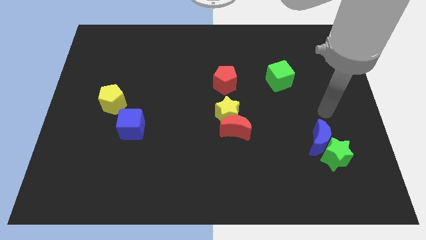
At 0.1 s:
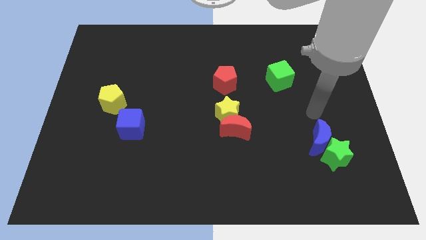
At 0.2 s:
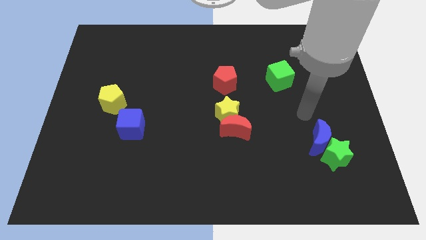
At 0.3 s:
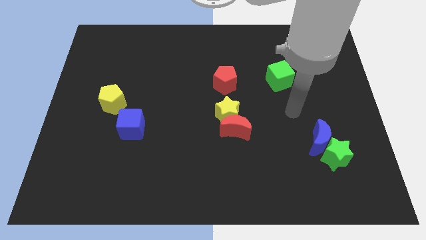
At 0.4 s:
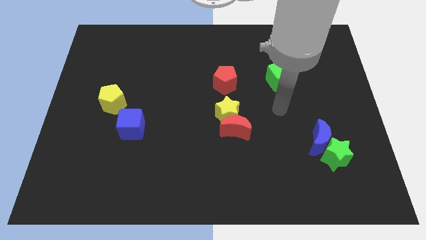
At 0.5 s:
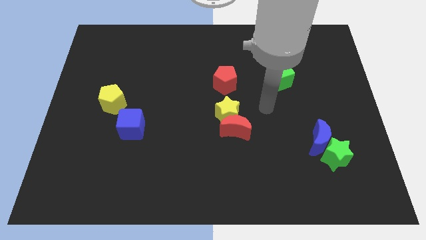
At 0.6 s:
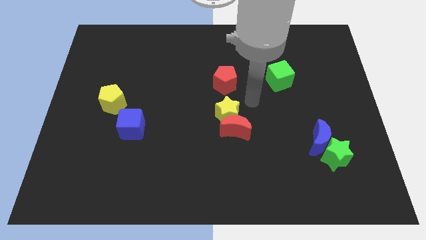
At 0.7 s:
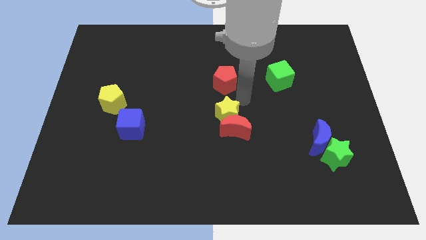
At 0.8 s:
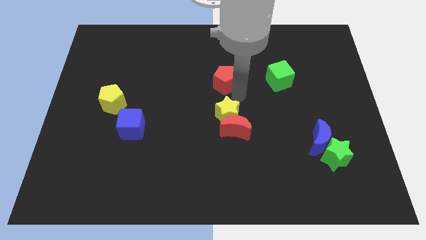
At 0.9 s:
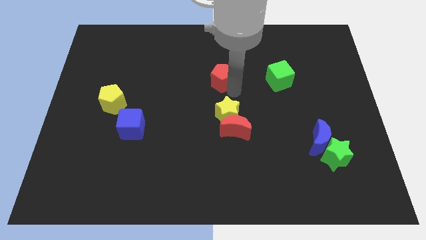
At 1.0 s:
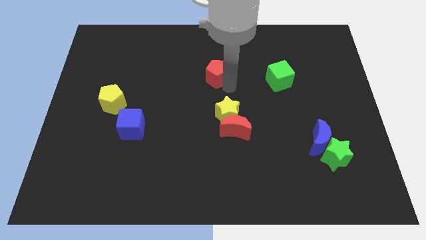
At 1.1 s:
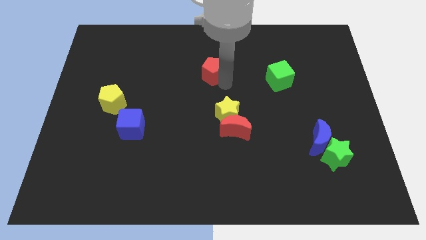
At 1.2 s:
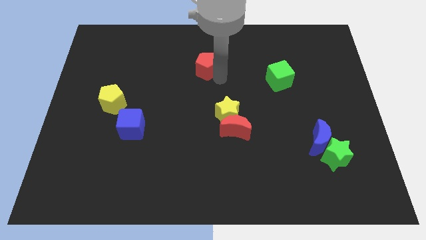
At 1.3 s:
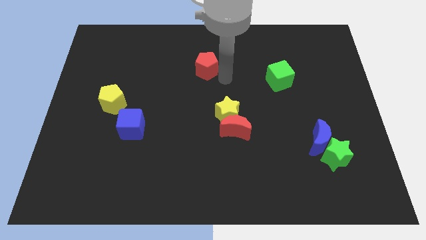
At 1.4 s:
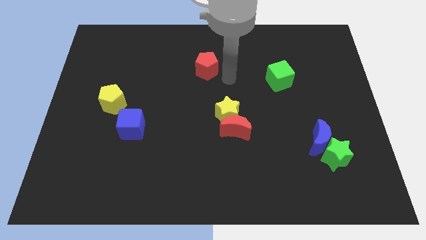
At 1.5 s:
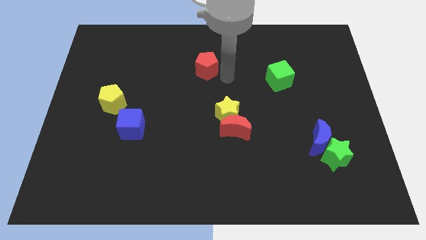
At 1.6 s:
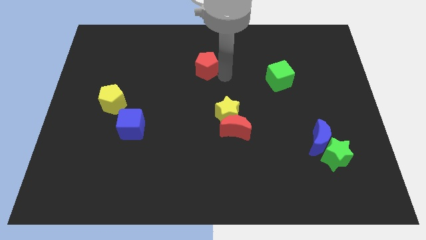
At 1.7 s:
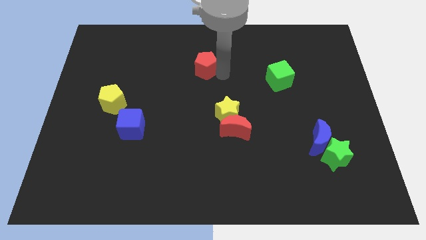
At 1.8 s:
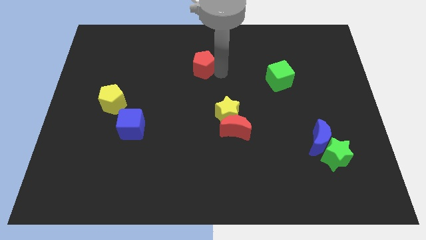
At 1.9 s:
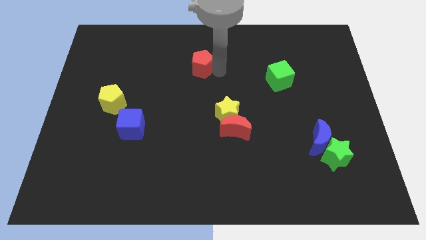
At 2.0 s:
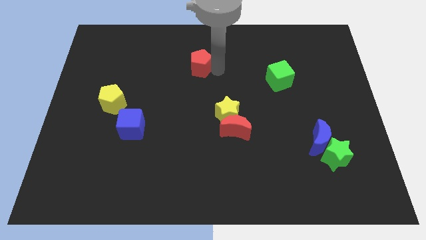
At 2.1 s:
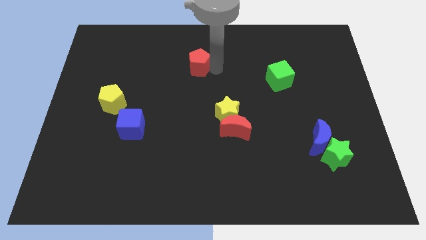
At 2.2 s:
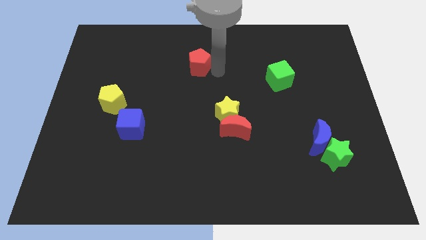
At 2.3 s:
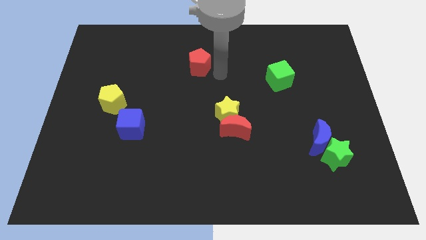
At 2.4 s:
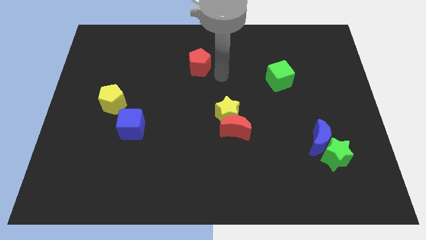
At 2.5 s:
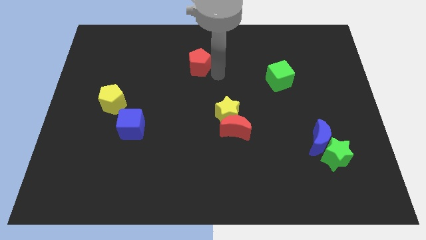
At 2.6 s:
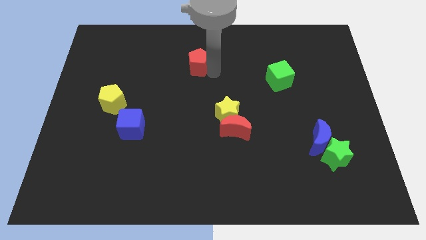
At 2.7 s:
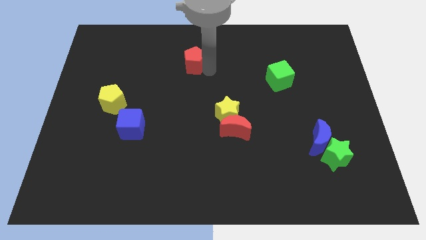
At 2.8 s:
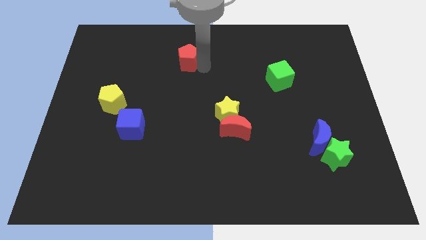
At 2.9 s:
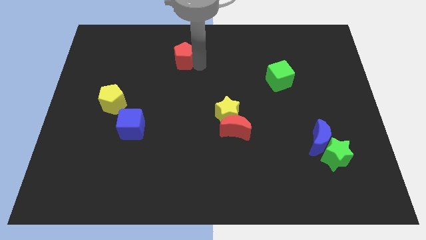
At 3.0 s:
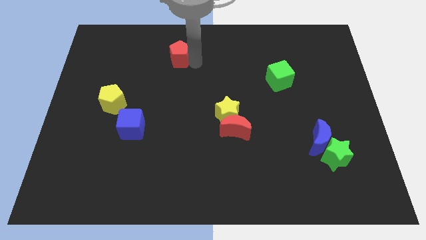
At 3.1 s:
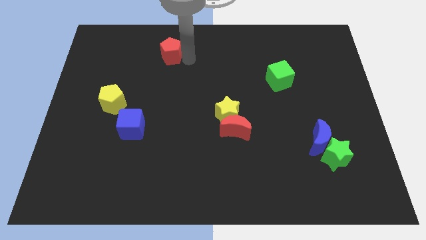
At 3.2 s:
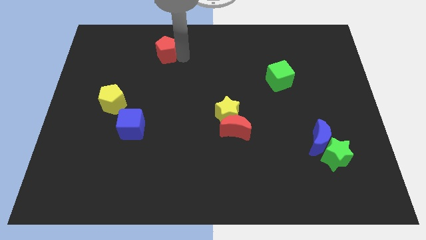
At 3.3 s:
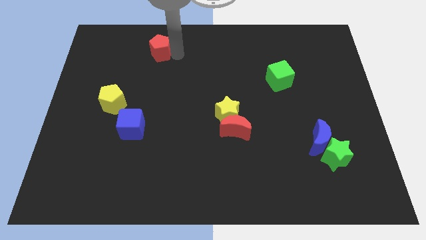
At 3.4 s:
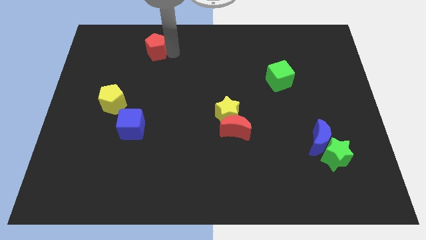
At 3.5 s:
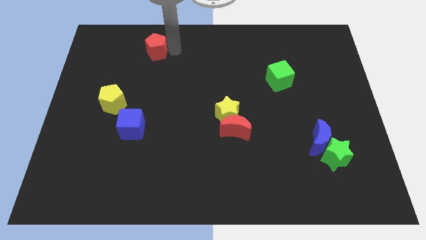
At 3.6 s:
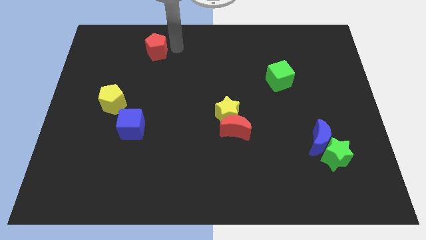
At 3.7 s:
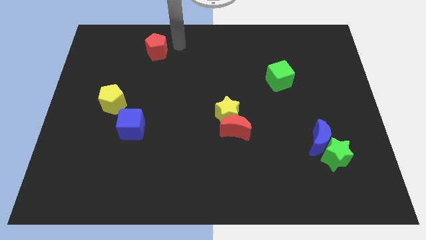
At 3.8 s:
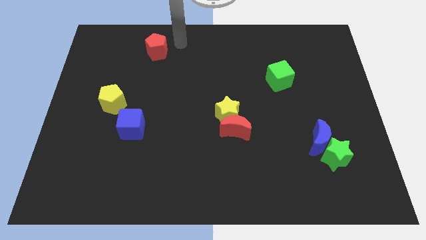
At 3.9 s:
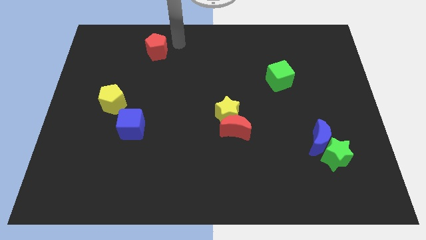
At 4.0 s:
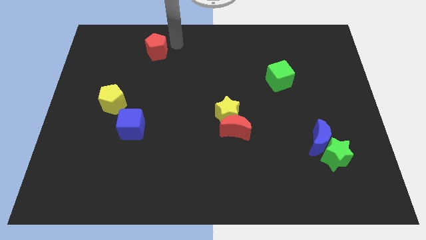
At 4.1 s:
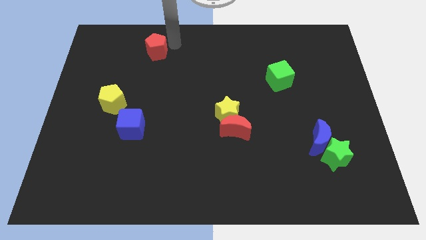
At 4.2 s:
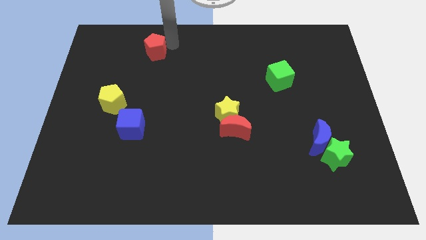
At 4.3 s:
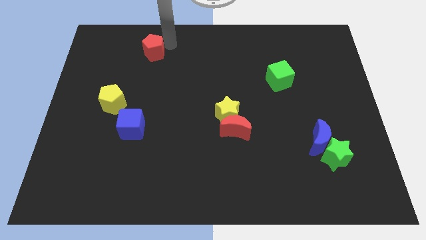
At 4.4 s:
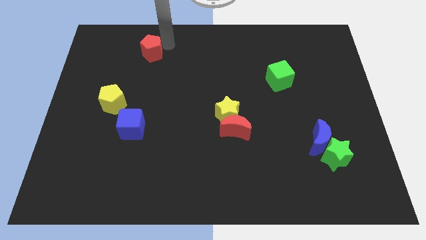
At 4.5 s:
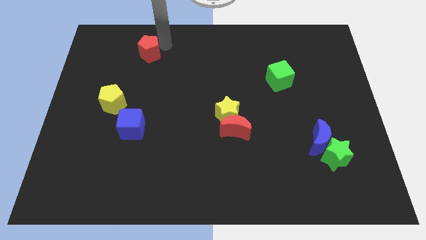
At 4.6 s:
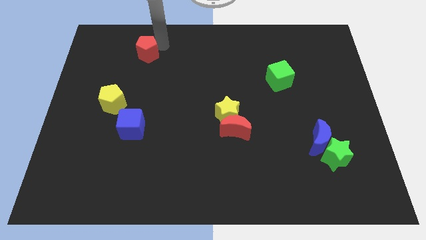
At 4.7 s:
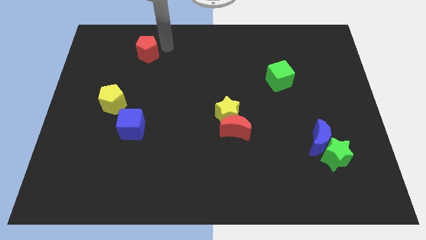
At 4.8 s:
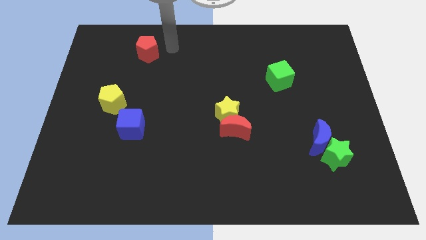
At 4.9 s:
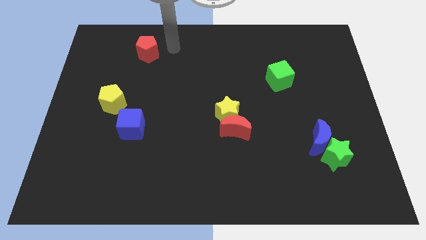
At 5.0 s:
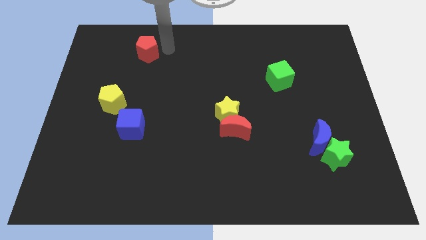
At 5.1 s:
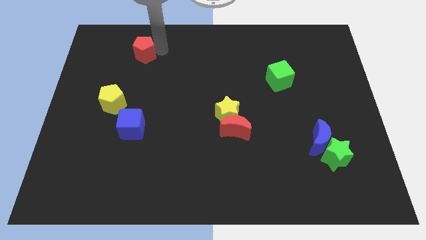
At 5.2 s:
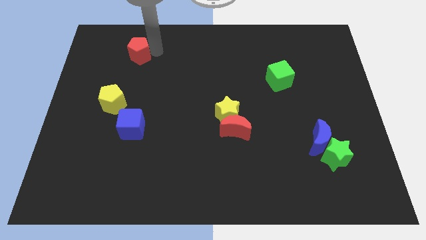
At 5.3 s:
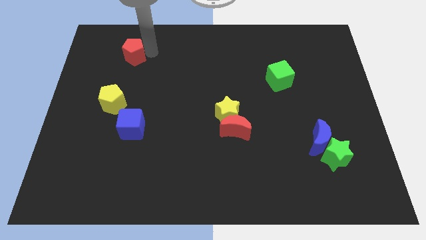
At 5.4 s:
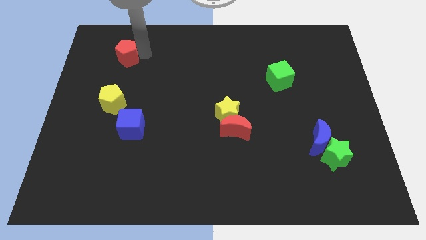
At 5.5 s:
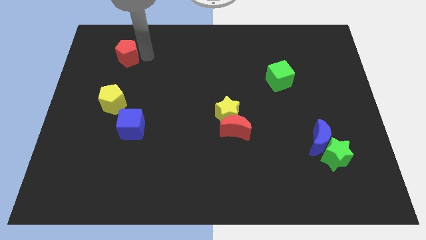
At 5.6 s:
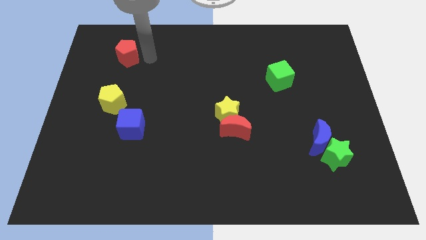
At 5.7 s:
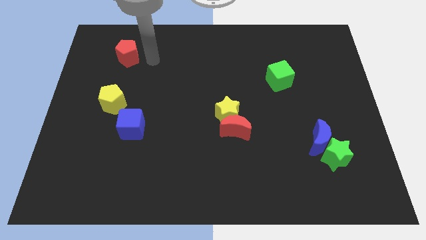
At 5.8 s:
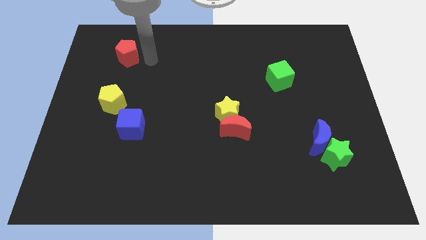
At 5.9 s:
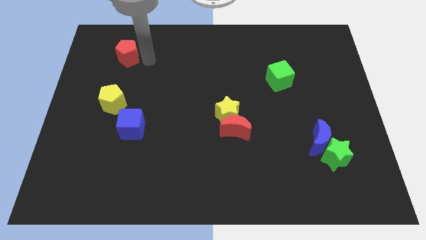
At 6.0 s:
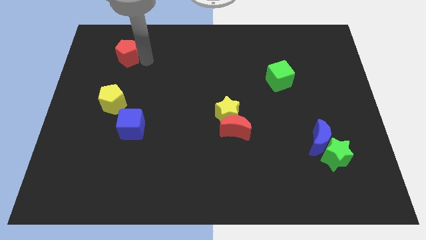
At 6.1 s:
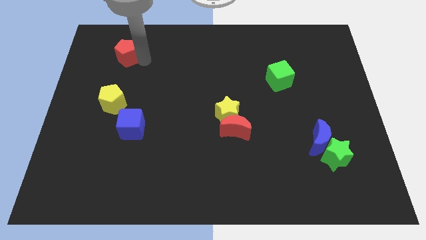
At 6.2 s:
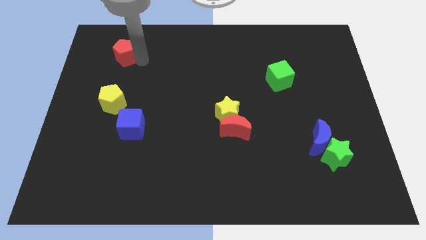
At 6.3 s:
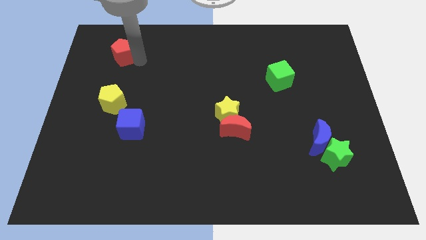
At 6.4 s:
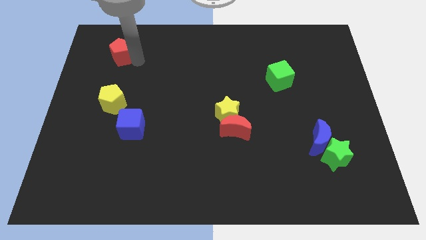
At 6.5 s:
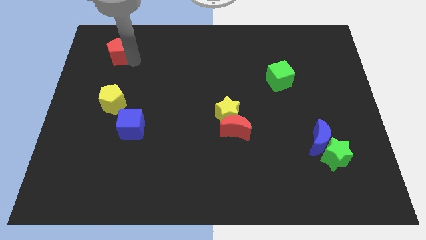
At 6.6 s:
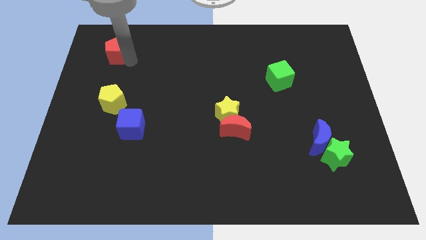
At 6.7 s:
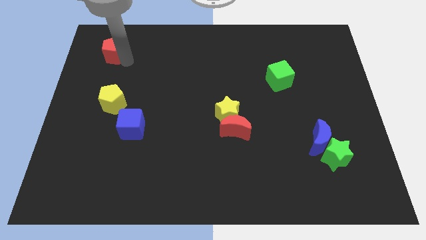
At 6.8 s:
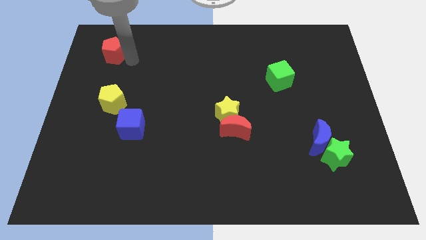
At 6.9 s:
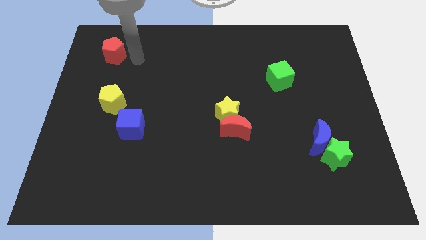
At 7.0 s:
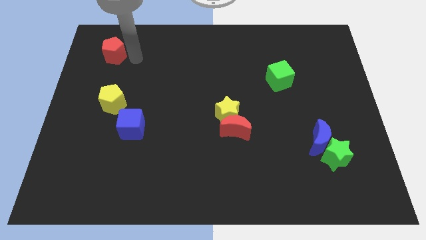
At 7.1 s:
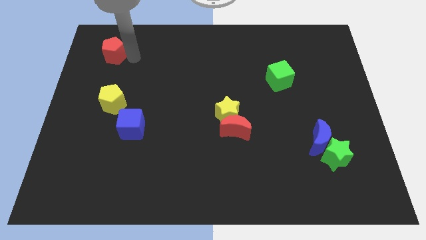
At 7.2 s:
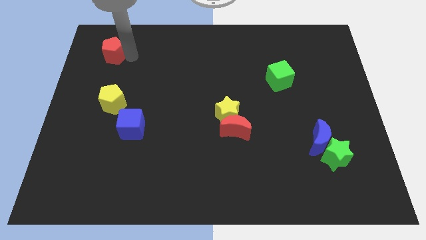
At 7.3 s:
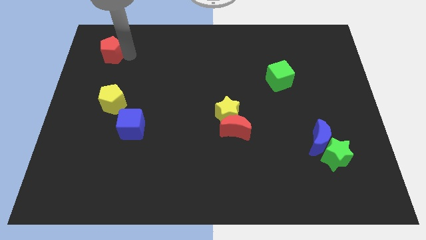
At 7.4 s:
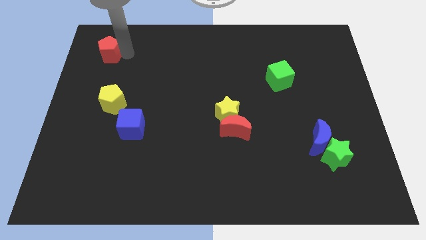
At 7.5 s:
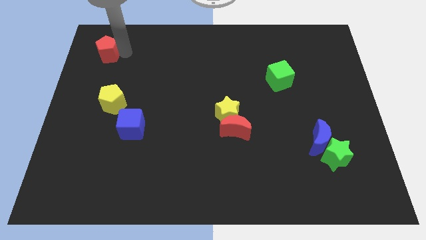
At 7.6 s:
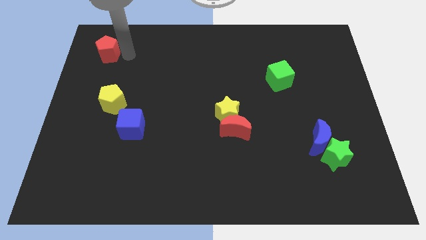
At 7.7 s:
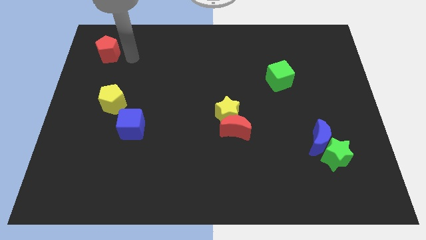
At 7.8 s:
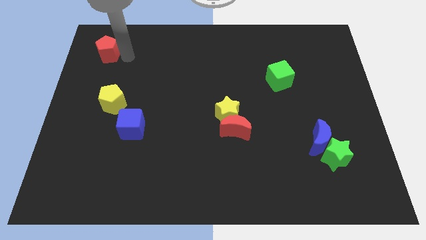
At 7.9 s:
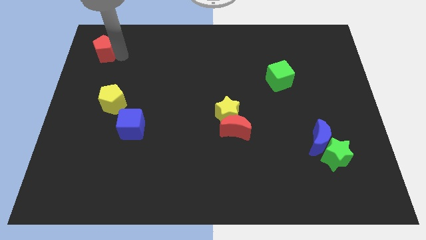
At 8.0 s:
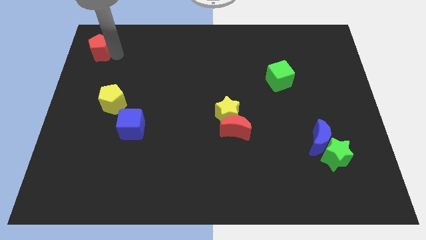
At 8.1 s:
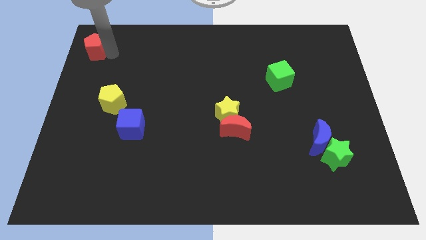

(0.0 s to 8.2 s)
put the red pentagon to the top left corner
